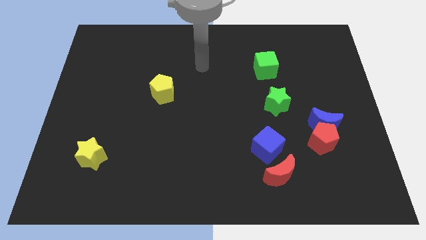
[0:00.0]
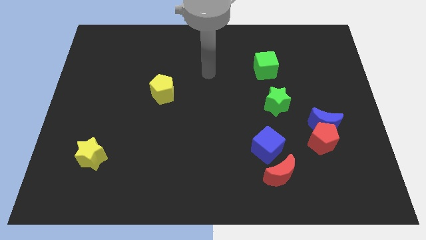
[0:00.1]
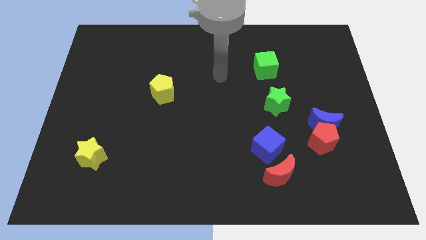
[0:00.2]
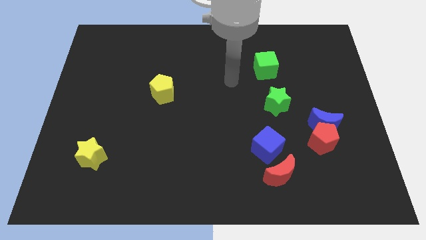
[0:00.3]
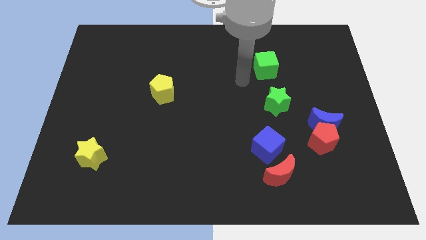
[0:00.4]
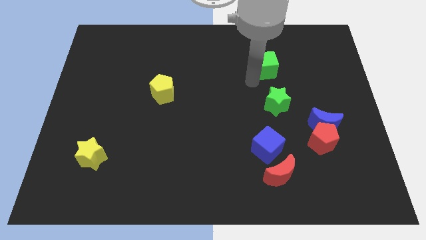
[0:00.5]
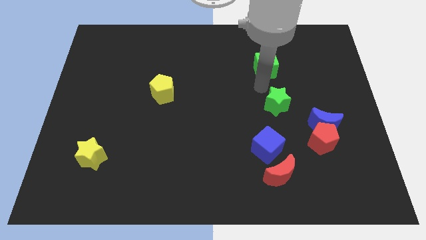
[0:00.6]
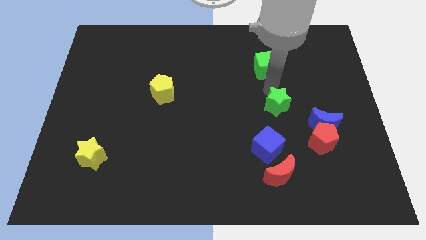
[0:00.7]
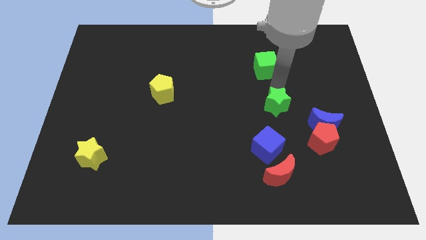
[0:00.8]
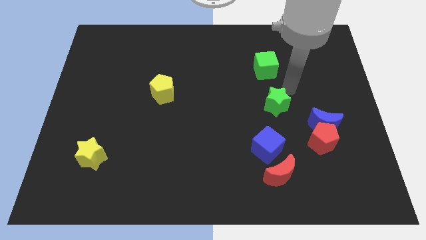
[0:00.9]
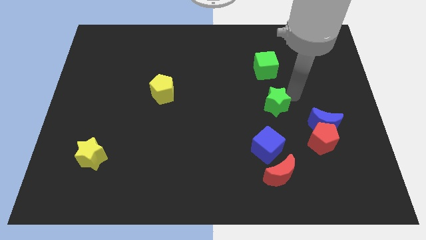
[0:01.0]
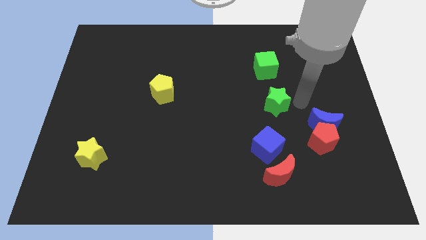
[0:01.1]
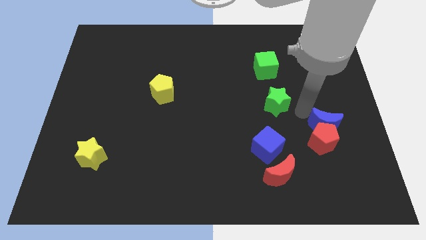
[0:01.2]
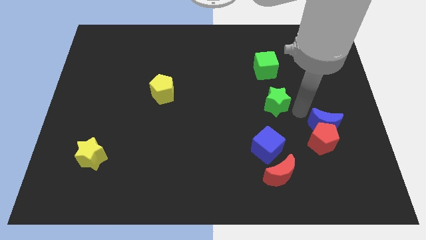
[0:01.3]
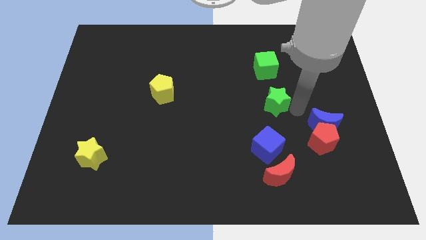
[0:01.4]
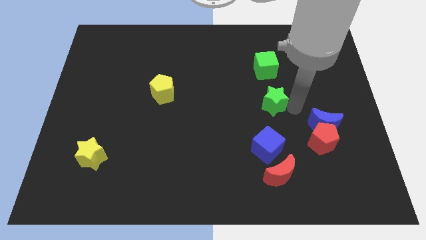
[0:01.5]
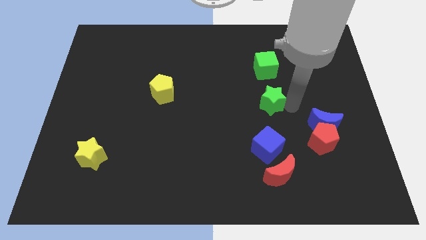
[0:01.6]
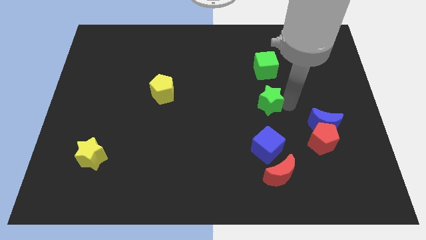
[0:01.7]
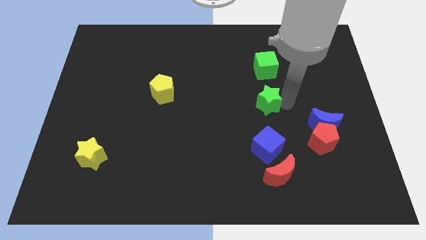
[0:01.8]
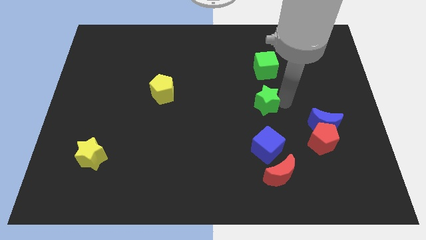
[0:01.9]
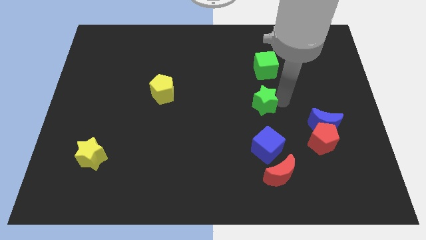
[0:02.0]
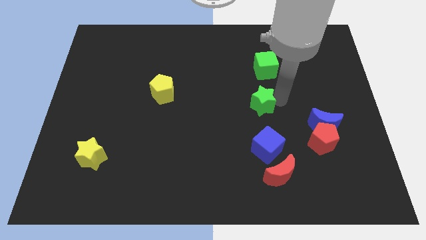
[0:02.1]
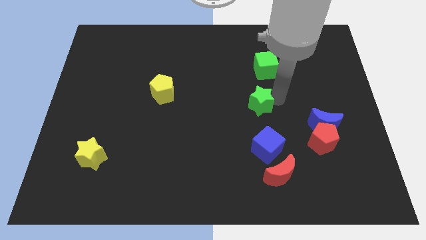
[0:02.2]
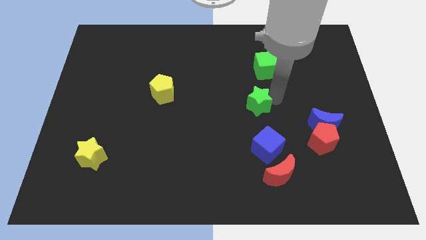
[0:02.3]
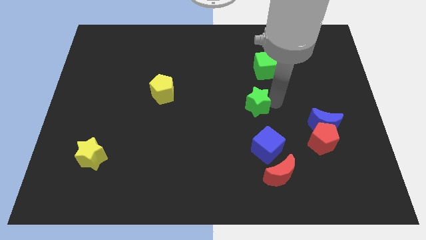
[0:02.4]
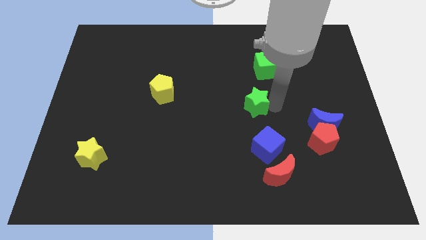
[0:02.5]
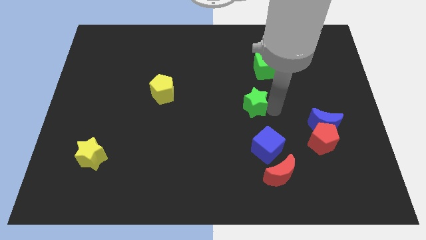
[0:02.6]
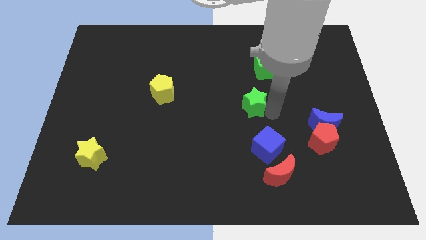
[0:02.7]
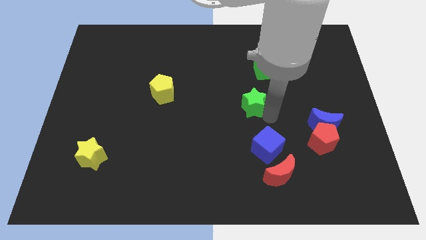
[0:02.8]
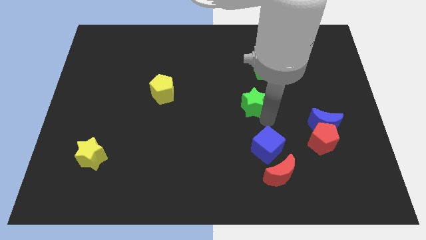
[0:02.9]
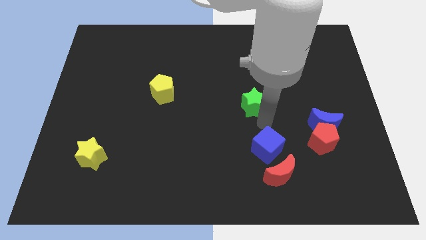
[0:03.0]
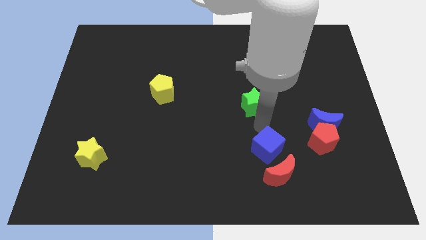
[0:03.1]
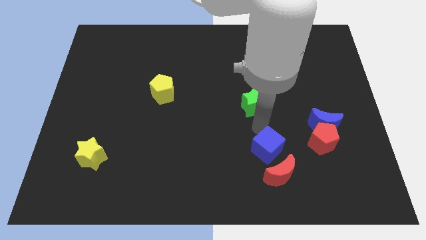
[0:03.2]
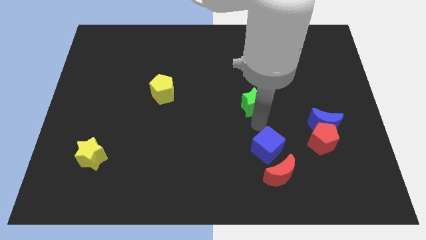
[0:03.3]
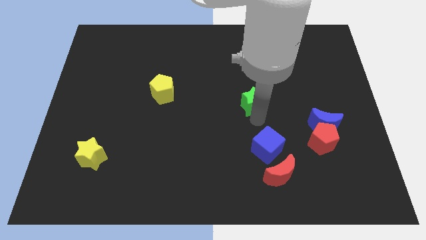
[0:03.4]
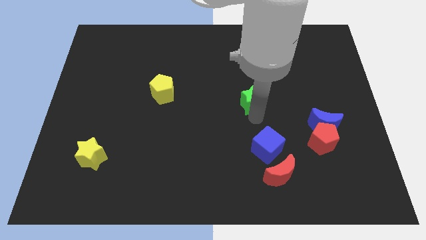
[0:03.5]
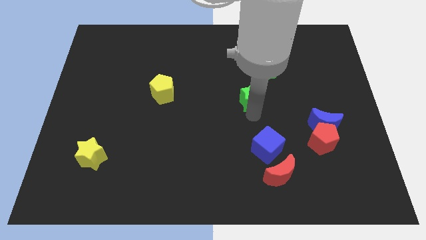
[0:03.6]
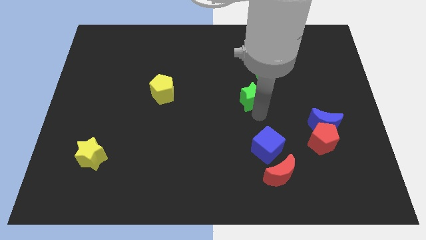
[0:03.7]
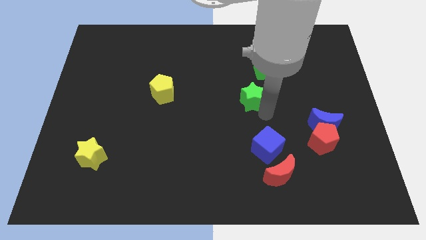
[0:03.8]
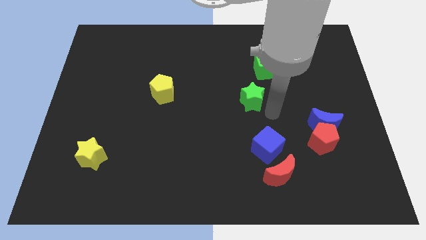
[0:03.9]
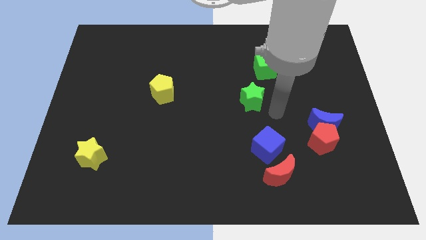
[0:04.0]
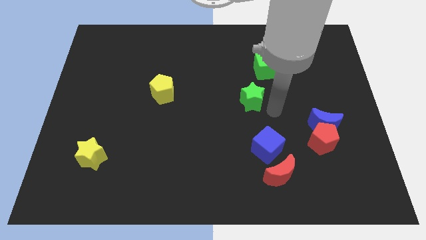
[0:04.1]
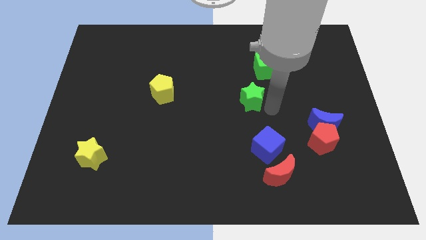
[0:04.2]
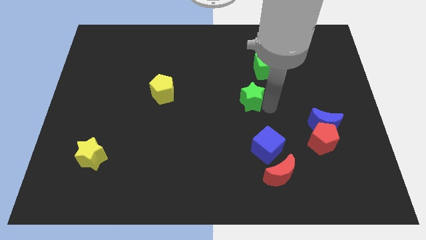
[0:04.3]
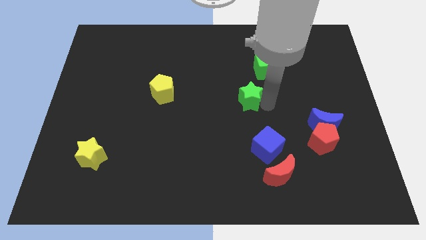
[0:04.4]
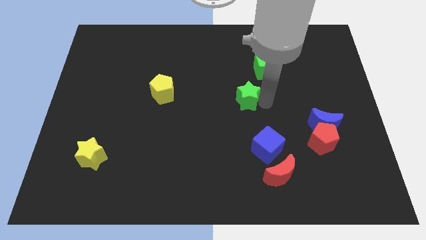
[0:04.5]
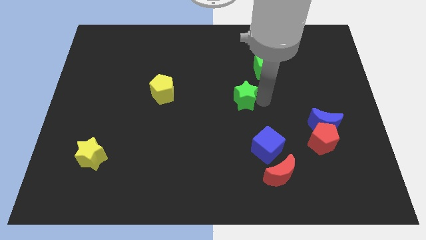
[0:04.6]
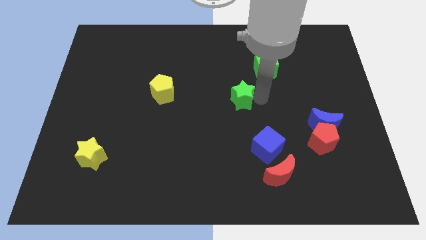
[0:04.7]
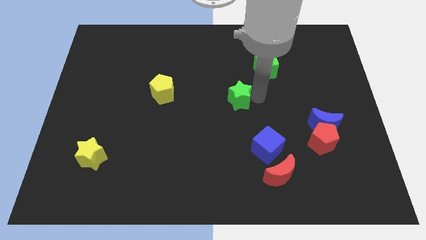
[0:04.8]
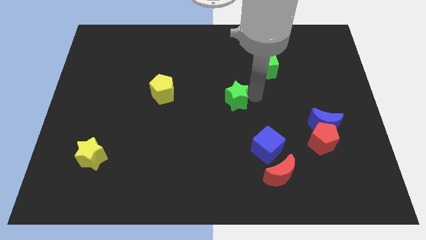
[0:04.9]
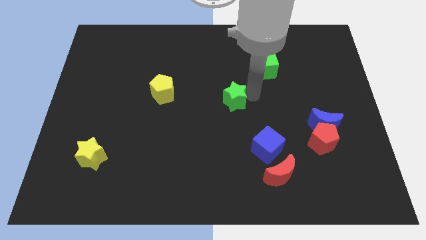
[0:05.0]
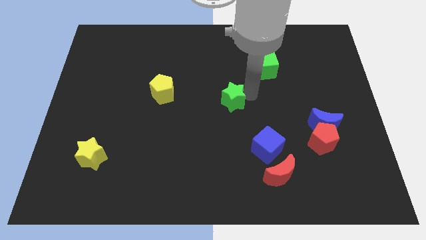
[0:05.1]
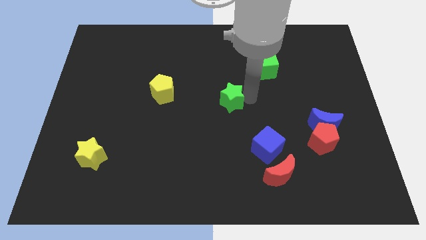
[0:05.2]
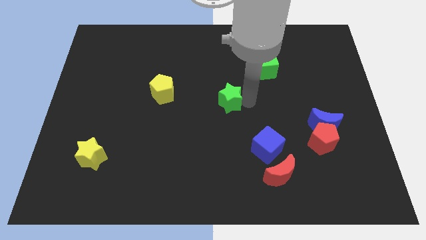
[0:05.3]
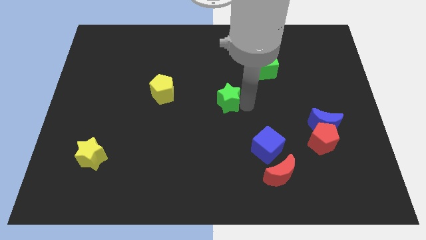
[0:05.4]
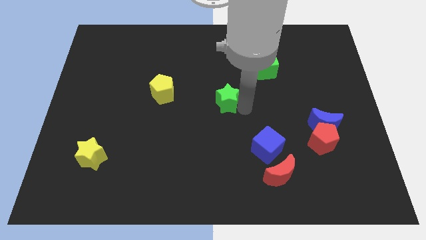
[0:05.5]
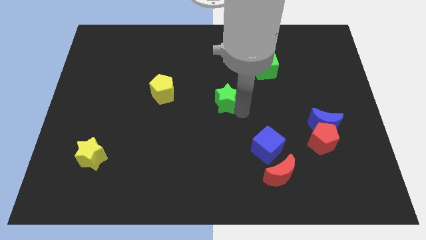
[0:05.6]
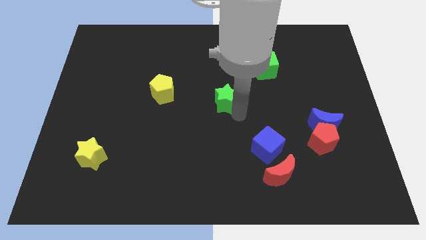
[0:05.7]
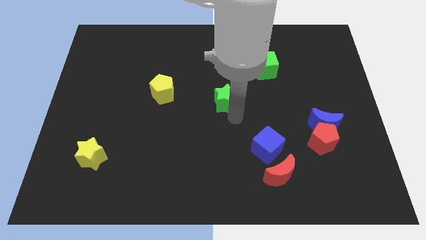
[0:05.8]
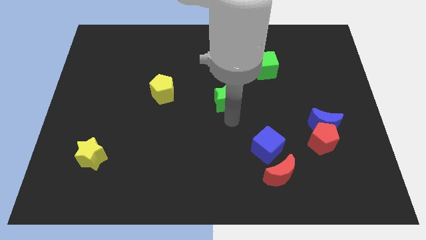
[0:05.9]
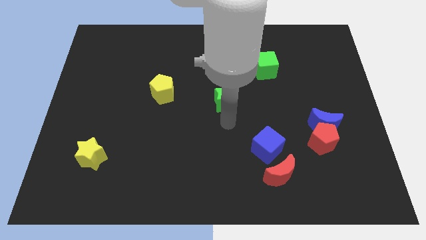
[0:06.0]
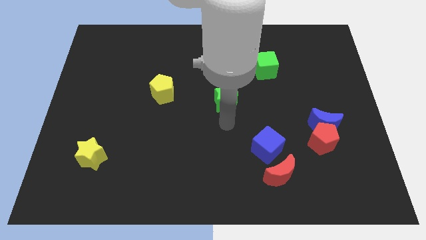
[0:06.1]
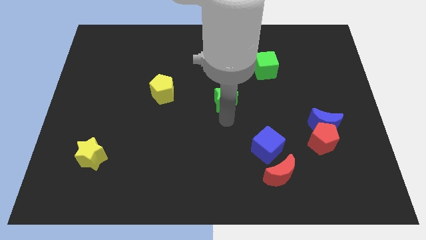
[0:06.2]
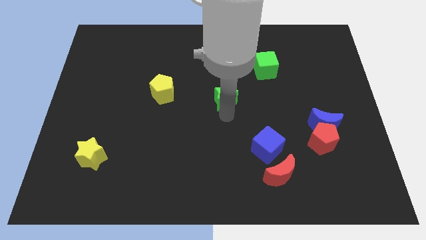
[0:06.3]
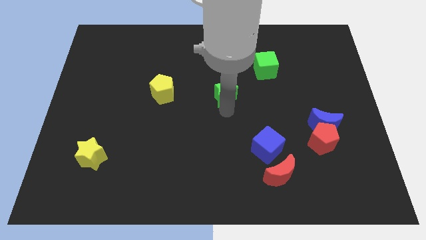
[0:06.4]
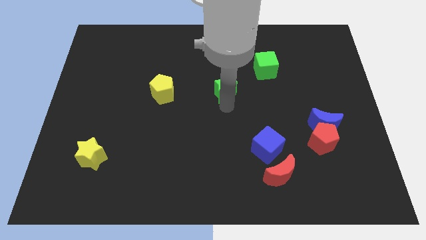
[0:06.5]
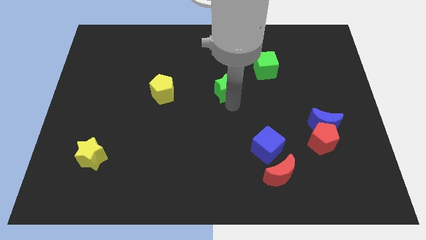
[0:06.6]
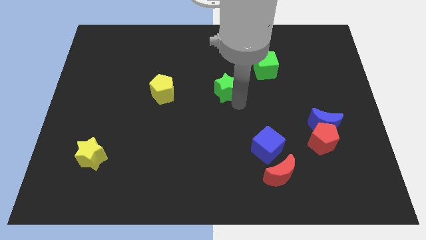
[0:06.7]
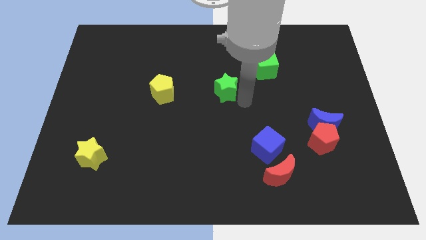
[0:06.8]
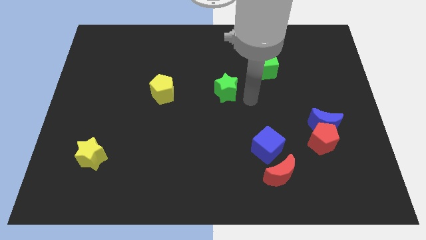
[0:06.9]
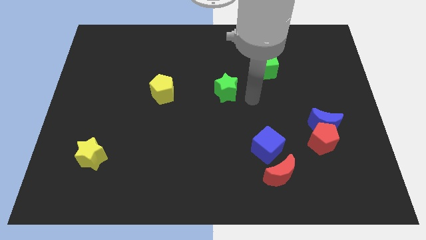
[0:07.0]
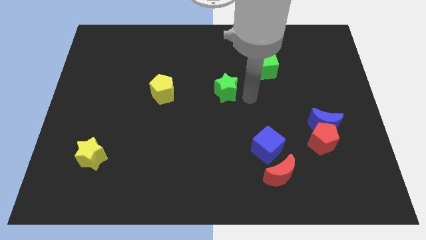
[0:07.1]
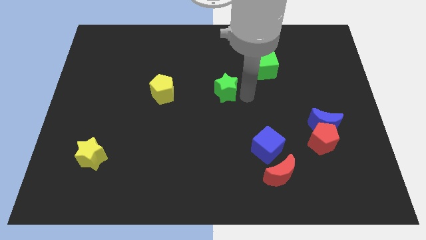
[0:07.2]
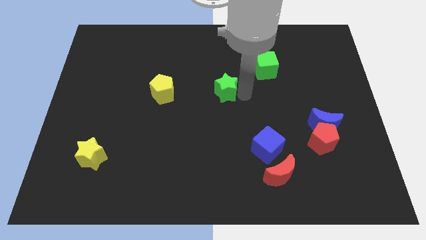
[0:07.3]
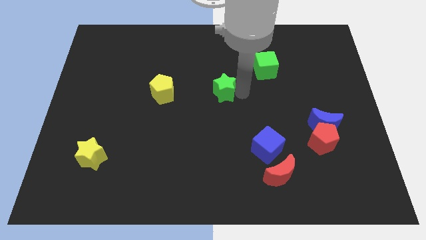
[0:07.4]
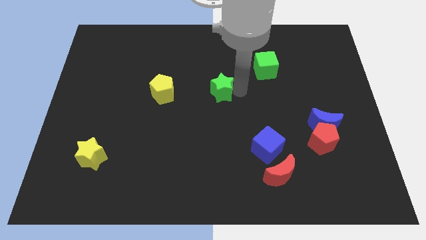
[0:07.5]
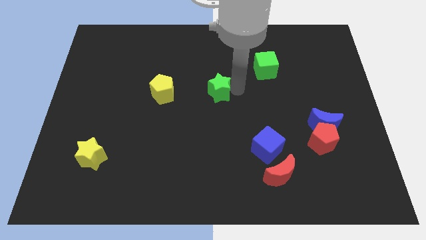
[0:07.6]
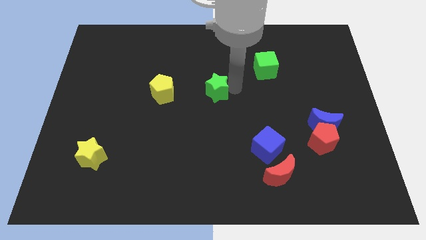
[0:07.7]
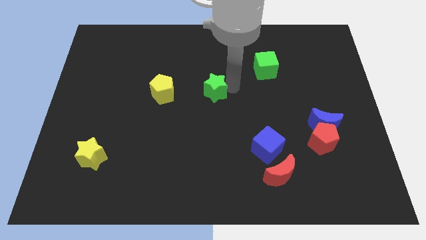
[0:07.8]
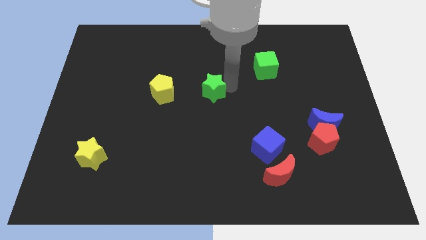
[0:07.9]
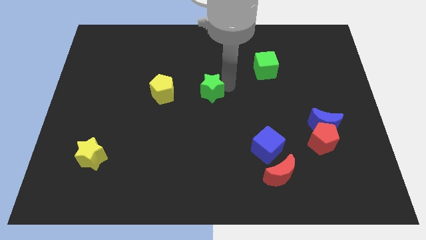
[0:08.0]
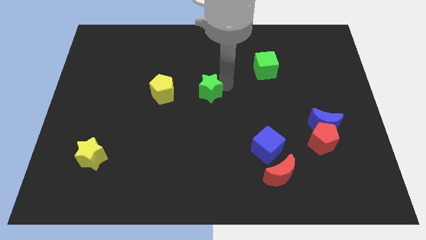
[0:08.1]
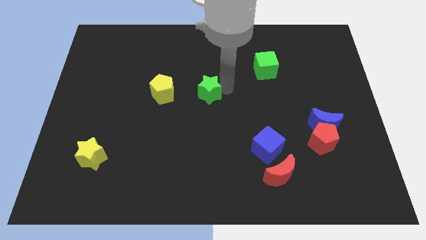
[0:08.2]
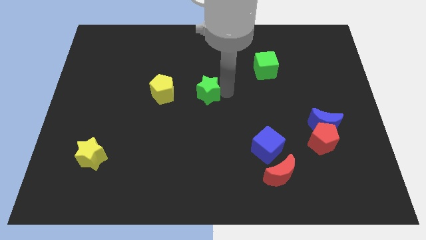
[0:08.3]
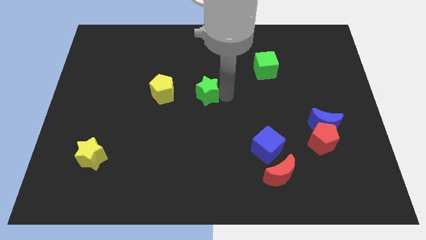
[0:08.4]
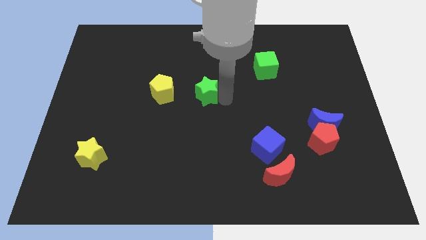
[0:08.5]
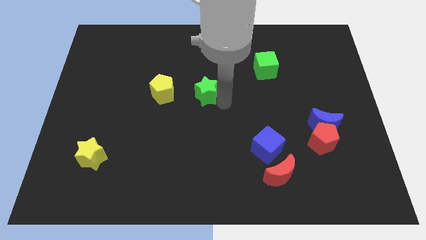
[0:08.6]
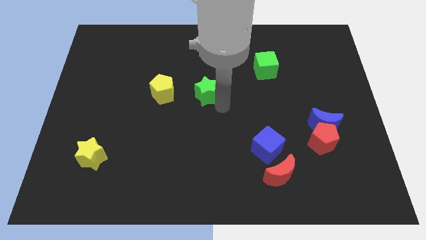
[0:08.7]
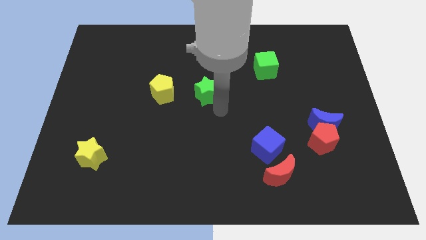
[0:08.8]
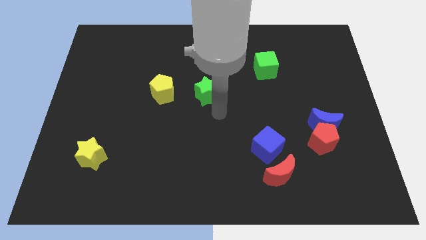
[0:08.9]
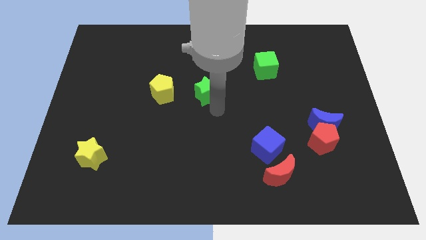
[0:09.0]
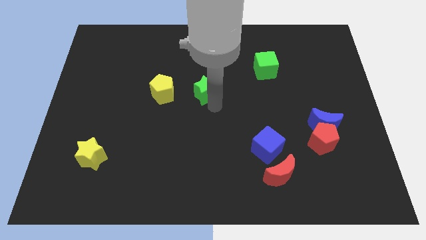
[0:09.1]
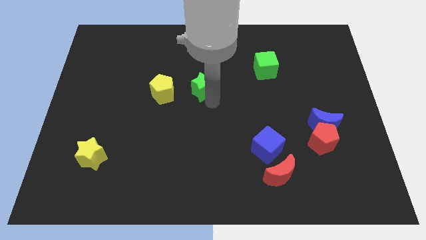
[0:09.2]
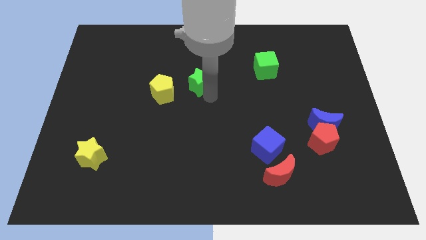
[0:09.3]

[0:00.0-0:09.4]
move the green star to the top right of the yellow pentagon
